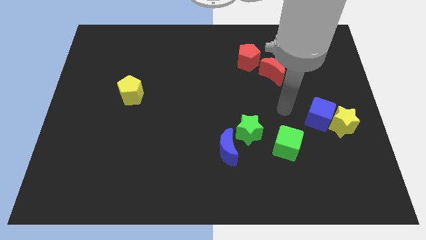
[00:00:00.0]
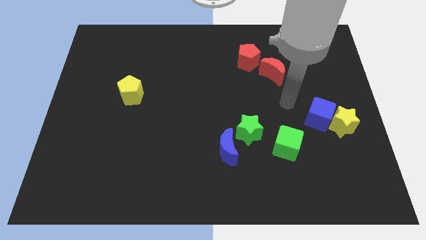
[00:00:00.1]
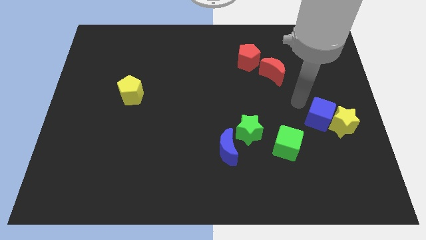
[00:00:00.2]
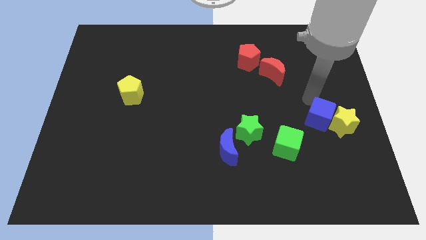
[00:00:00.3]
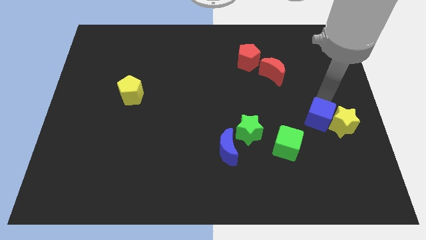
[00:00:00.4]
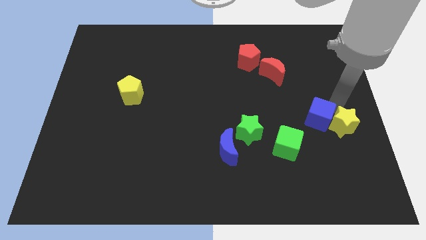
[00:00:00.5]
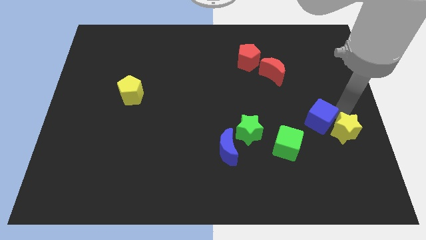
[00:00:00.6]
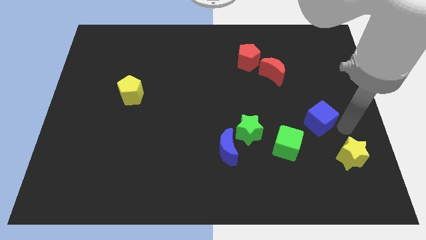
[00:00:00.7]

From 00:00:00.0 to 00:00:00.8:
separate the blue cube from the yellow star

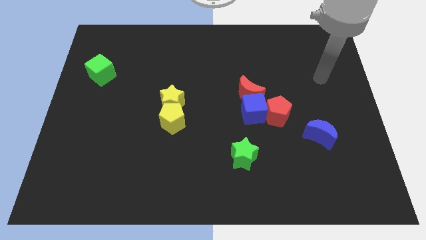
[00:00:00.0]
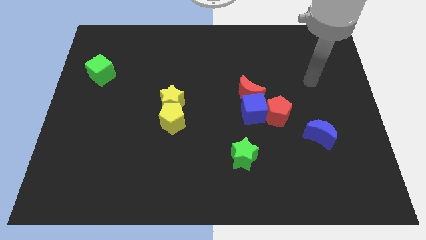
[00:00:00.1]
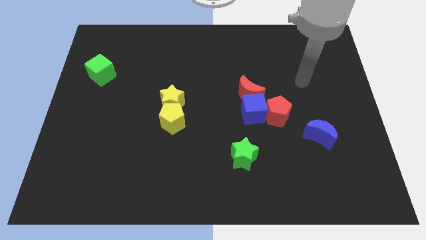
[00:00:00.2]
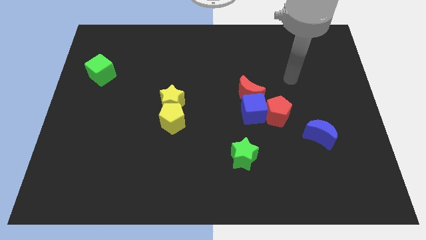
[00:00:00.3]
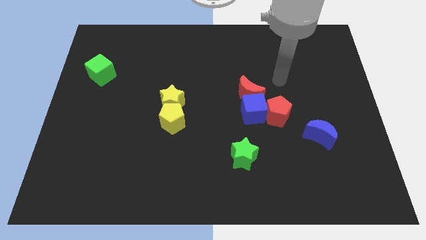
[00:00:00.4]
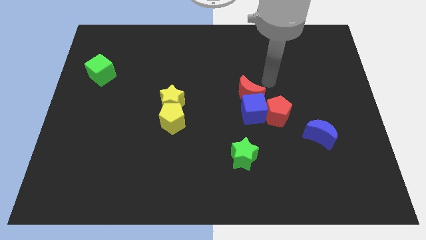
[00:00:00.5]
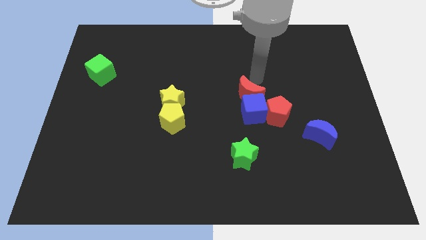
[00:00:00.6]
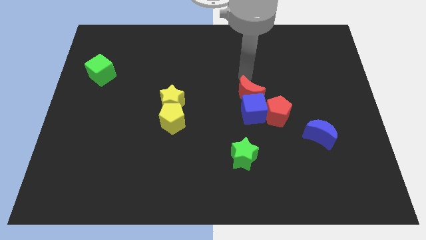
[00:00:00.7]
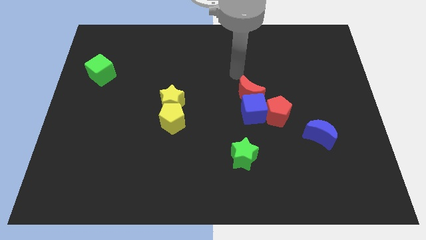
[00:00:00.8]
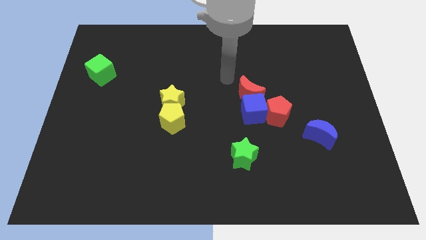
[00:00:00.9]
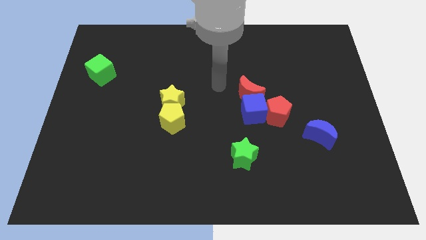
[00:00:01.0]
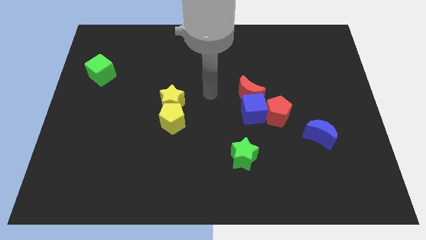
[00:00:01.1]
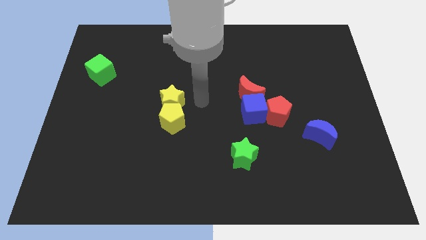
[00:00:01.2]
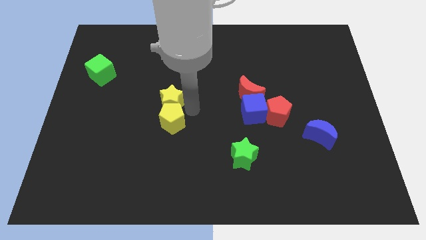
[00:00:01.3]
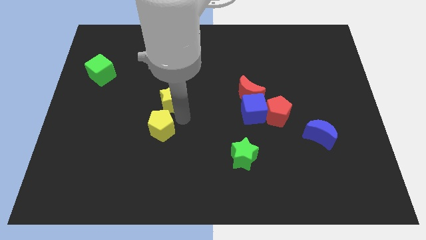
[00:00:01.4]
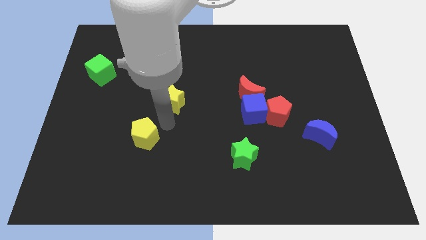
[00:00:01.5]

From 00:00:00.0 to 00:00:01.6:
separate the yellow star from the yellow pentagon

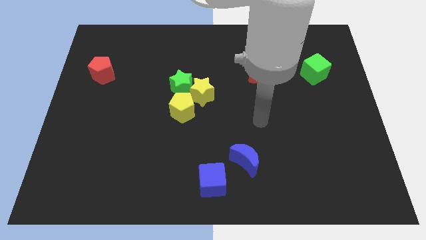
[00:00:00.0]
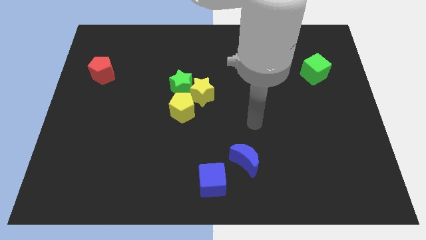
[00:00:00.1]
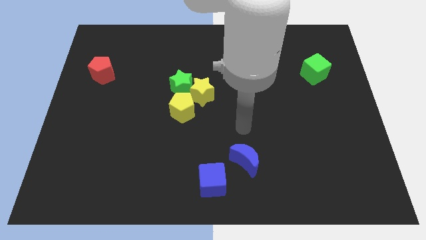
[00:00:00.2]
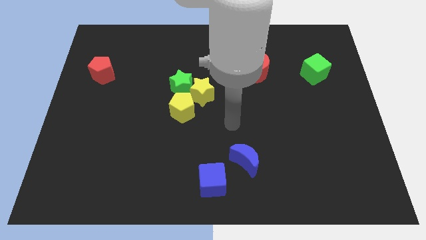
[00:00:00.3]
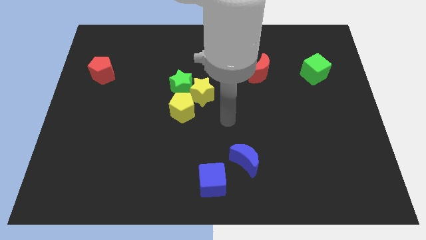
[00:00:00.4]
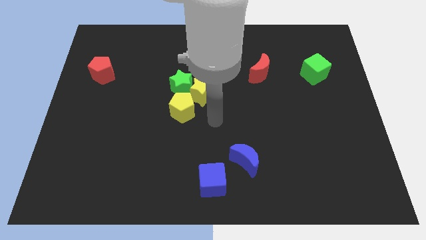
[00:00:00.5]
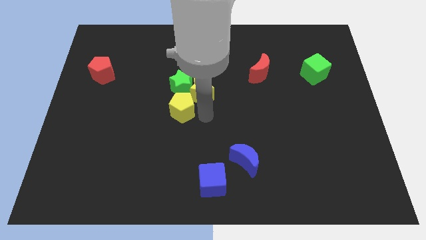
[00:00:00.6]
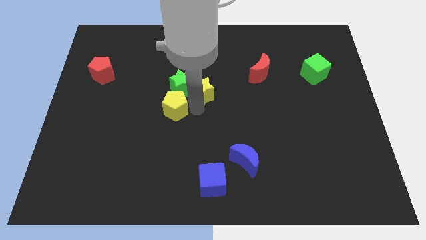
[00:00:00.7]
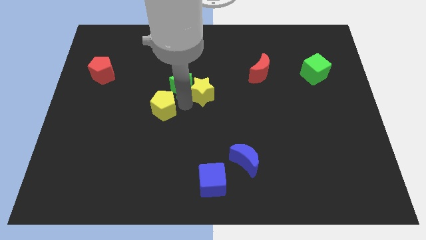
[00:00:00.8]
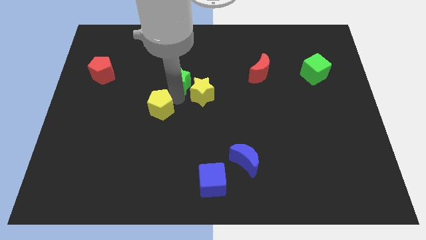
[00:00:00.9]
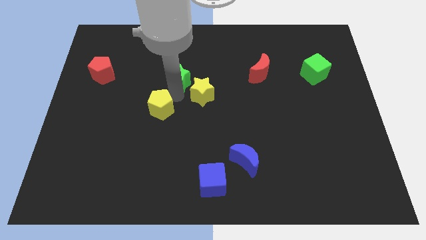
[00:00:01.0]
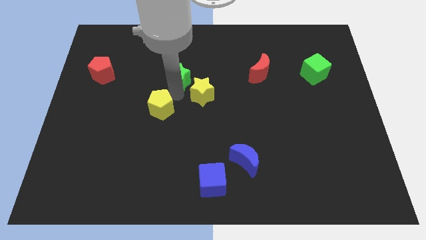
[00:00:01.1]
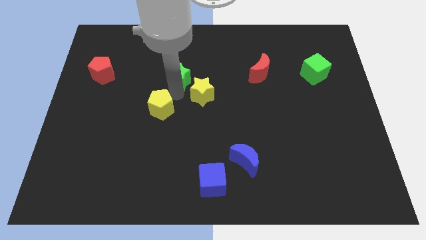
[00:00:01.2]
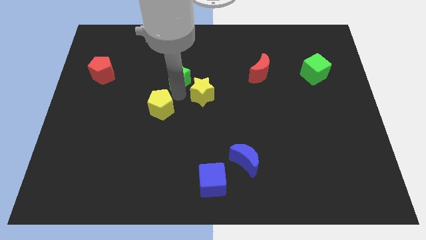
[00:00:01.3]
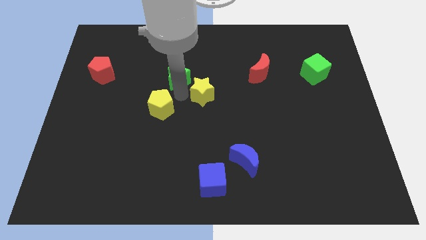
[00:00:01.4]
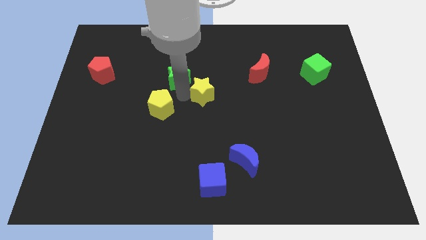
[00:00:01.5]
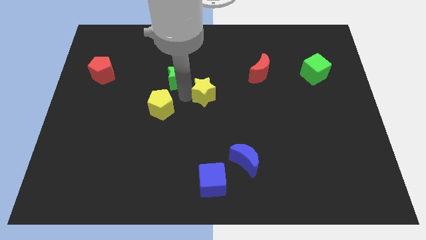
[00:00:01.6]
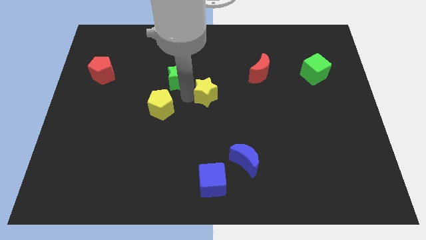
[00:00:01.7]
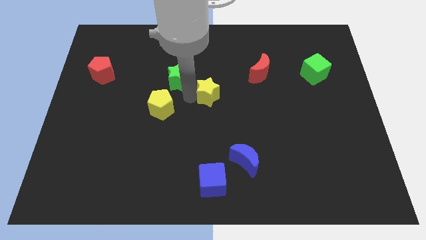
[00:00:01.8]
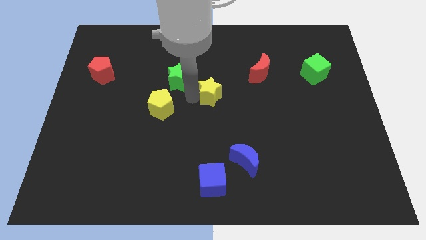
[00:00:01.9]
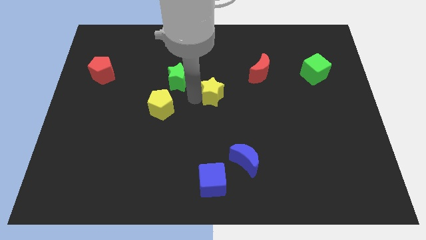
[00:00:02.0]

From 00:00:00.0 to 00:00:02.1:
separate the yellow star from the green star and yellow pentagon

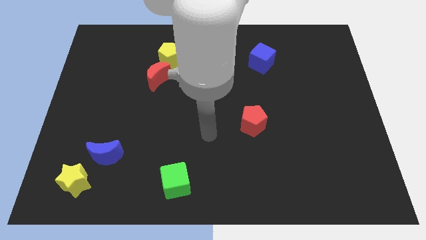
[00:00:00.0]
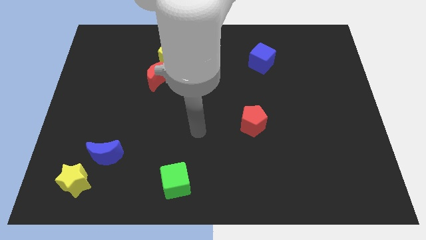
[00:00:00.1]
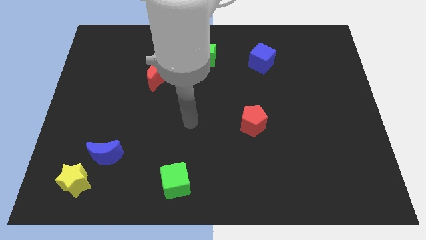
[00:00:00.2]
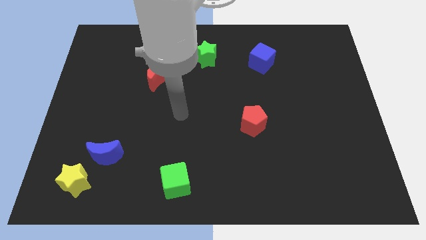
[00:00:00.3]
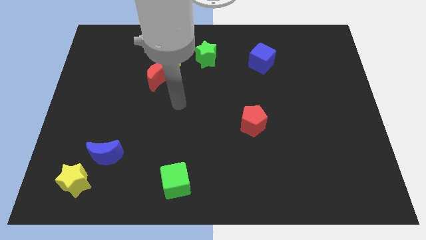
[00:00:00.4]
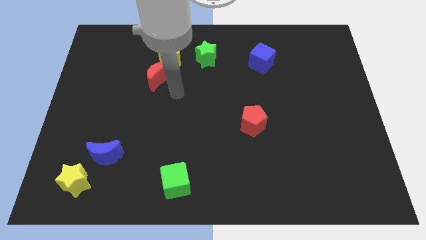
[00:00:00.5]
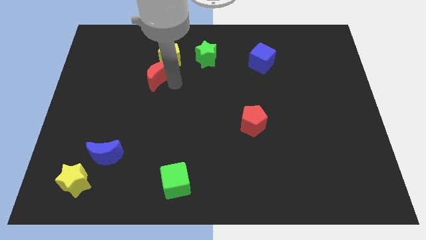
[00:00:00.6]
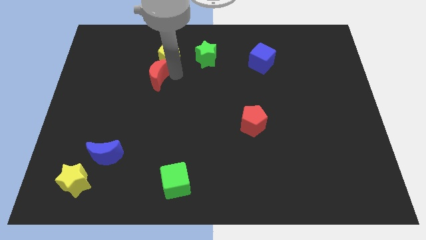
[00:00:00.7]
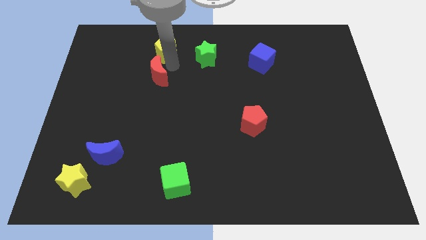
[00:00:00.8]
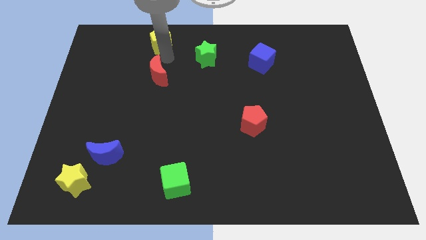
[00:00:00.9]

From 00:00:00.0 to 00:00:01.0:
separate the red moon from the yellow pentagon

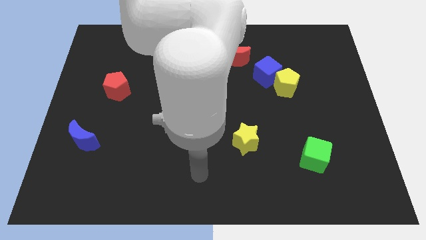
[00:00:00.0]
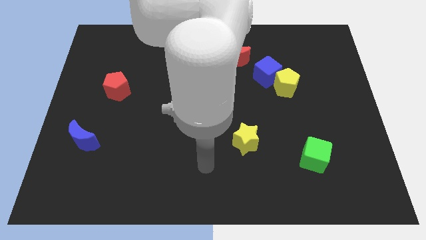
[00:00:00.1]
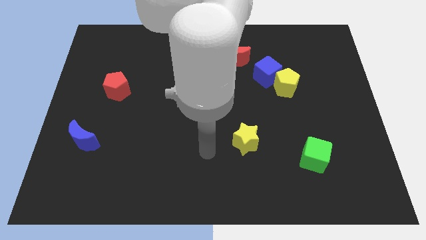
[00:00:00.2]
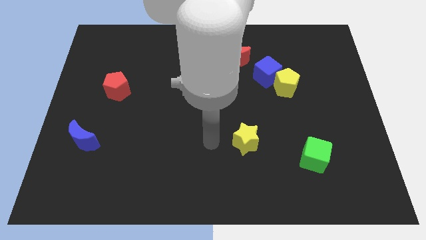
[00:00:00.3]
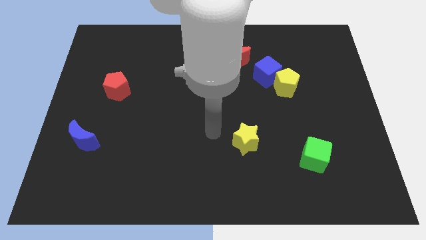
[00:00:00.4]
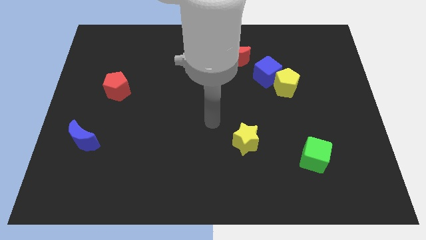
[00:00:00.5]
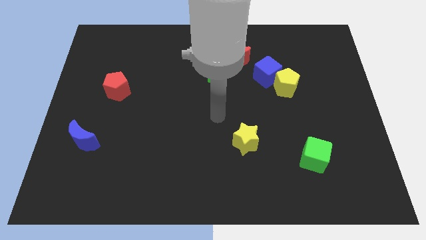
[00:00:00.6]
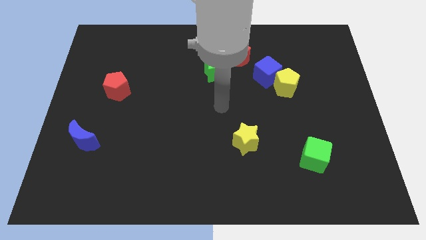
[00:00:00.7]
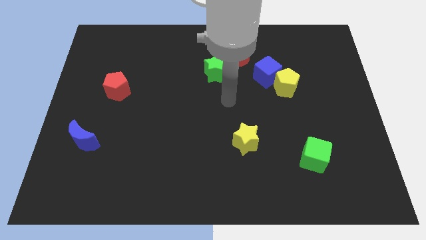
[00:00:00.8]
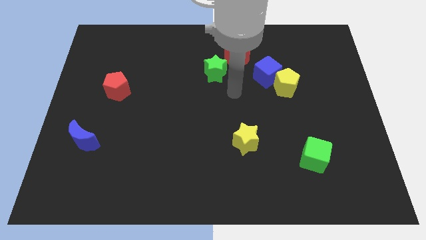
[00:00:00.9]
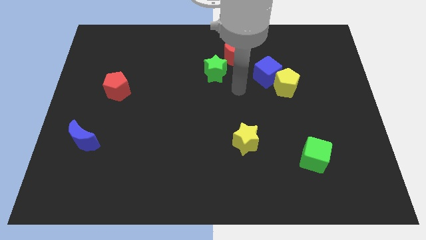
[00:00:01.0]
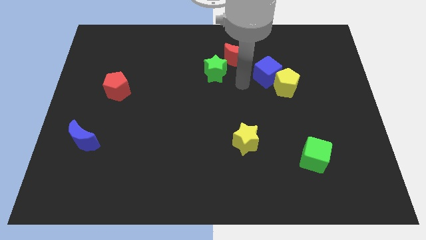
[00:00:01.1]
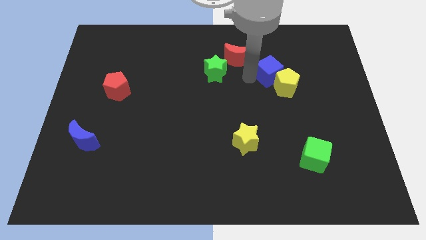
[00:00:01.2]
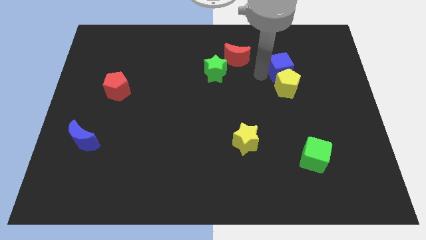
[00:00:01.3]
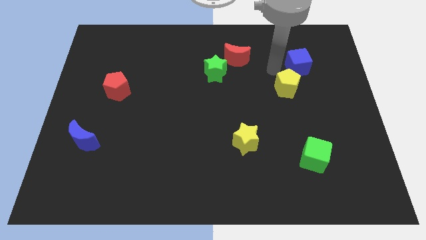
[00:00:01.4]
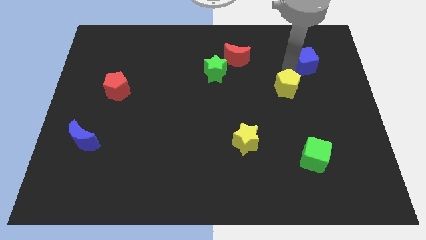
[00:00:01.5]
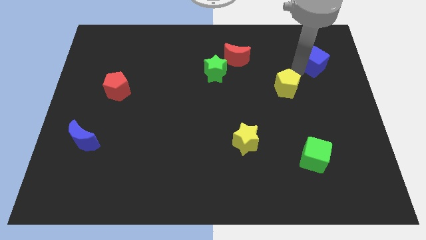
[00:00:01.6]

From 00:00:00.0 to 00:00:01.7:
move the yellow pentagon away from the blue cube

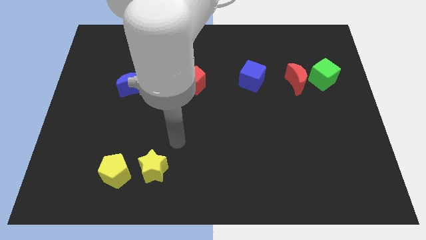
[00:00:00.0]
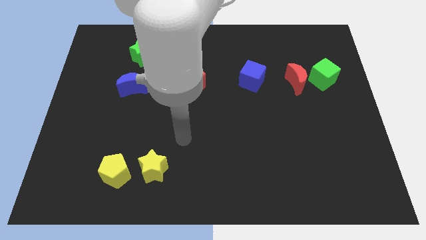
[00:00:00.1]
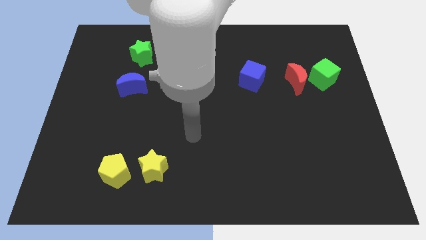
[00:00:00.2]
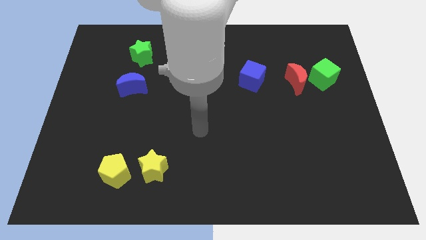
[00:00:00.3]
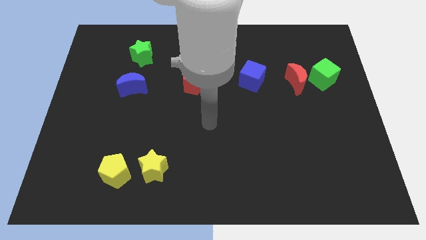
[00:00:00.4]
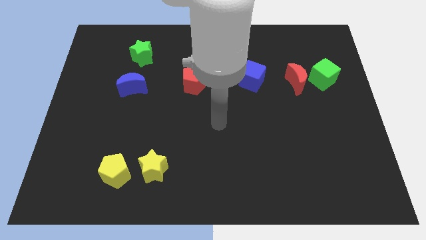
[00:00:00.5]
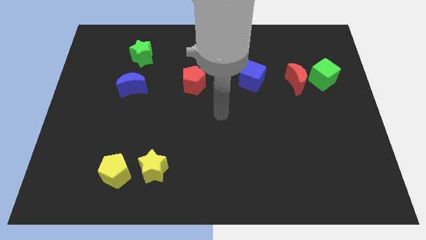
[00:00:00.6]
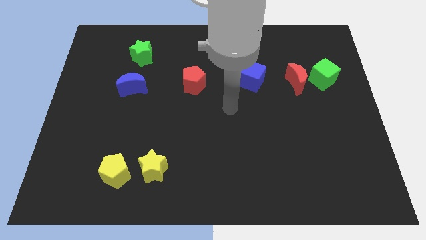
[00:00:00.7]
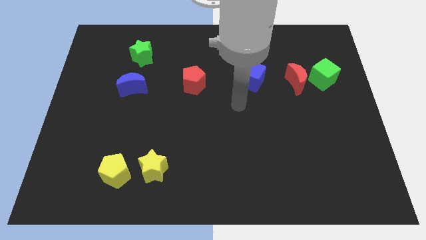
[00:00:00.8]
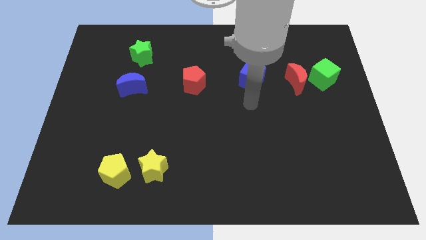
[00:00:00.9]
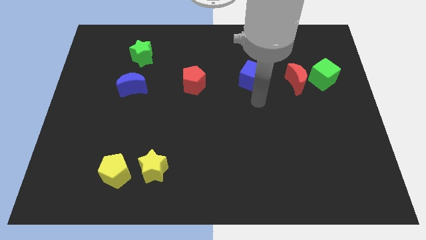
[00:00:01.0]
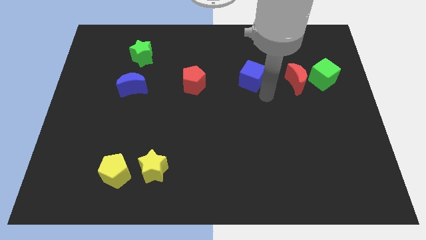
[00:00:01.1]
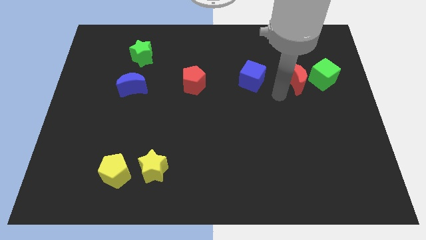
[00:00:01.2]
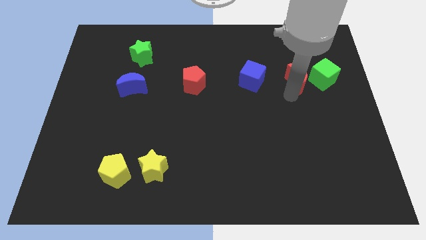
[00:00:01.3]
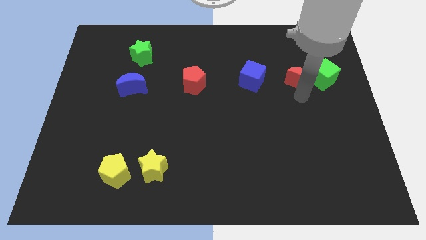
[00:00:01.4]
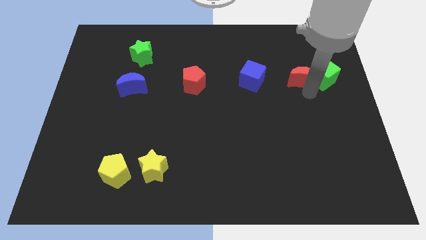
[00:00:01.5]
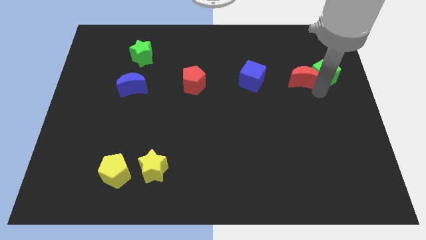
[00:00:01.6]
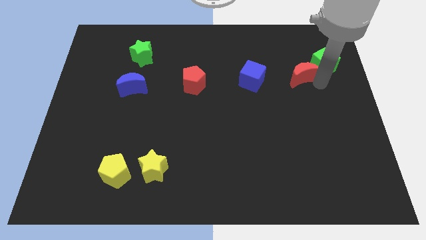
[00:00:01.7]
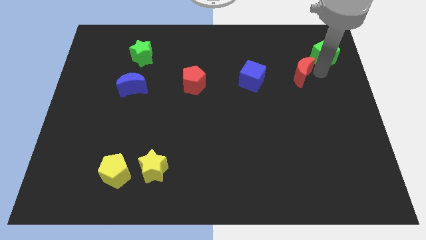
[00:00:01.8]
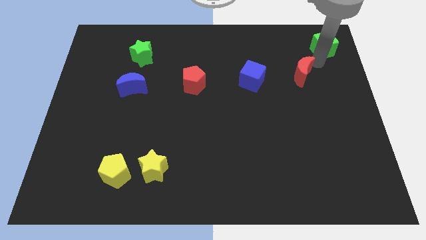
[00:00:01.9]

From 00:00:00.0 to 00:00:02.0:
separate the red moon from the green cube
